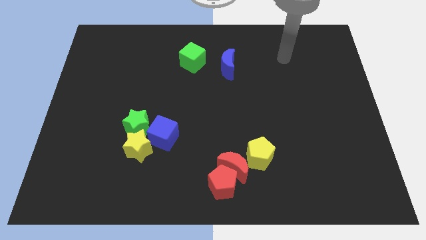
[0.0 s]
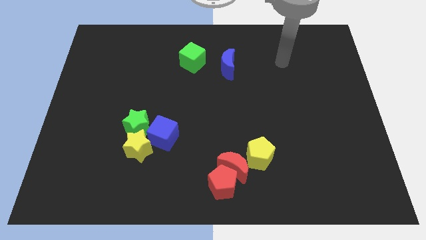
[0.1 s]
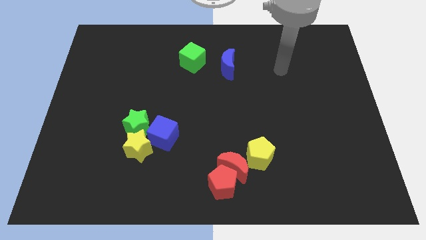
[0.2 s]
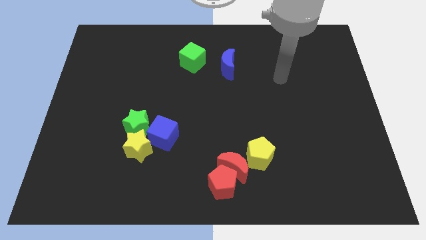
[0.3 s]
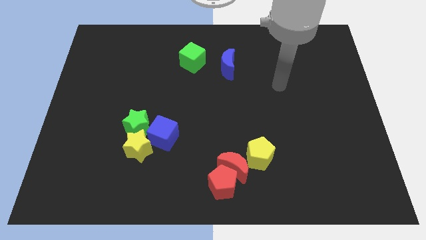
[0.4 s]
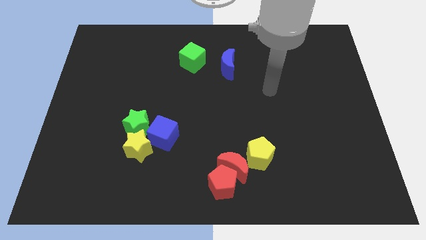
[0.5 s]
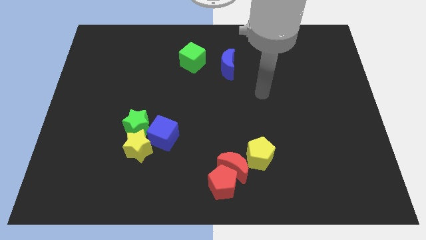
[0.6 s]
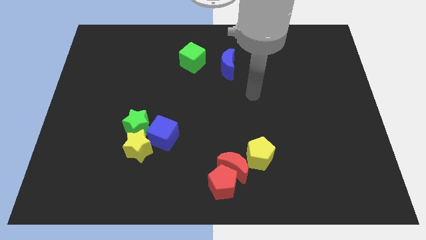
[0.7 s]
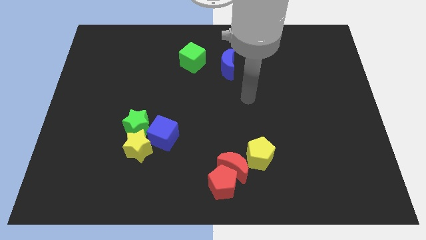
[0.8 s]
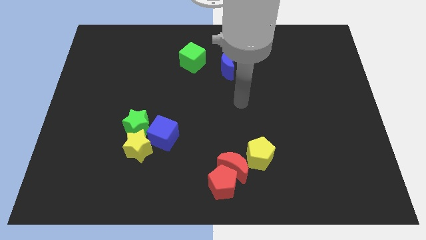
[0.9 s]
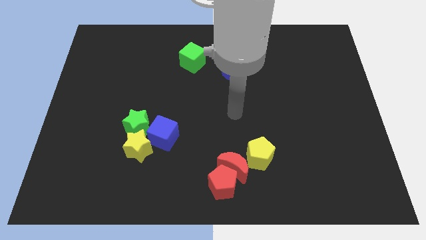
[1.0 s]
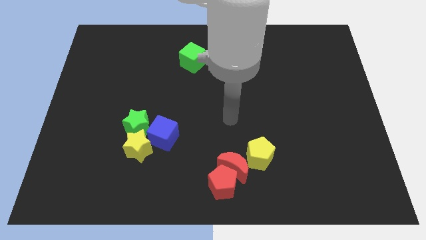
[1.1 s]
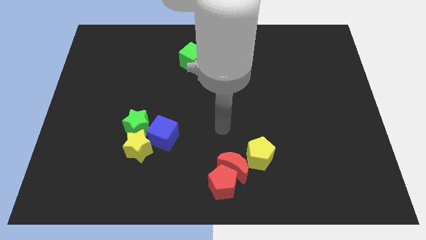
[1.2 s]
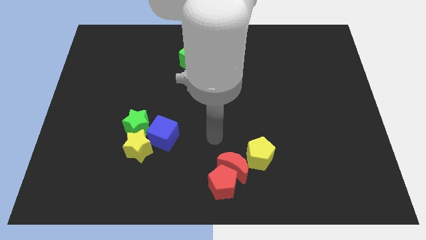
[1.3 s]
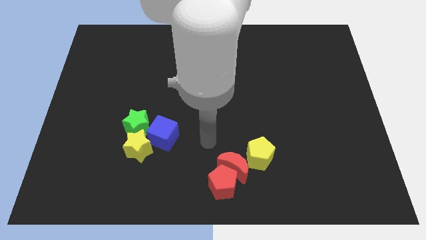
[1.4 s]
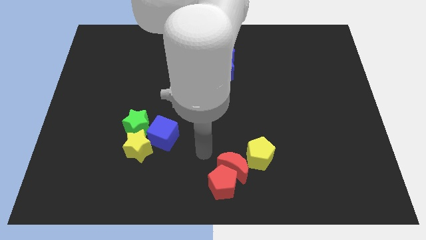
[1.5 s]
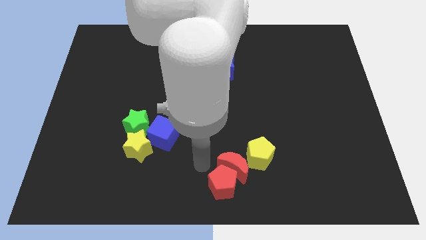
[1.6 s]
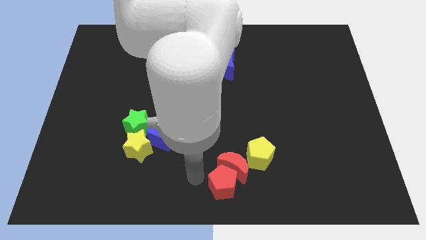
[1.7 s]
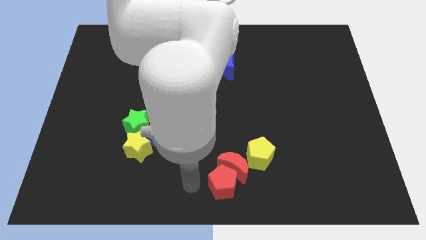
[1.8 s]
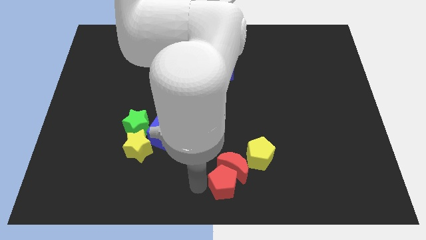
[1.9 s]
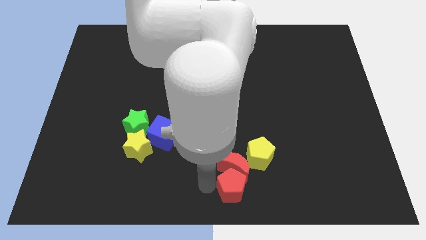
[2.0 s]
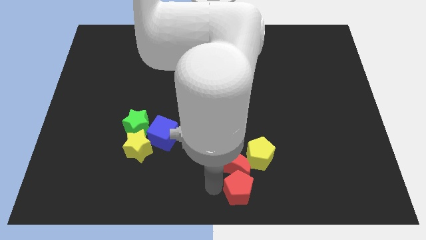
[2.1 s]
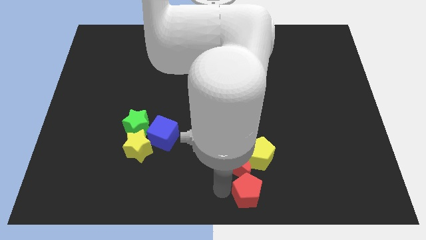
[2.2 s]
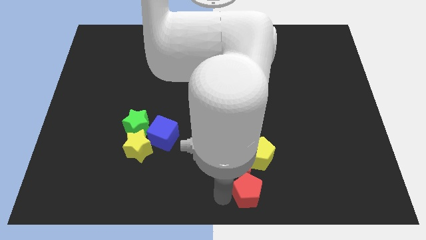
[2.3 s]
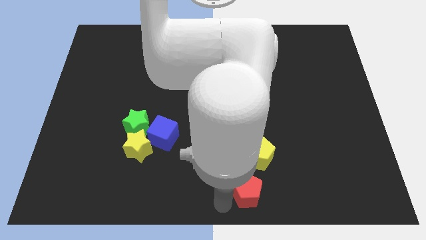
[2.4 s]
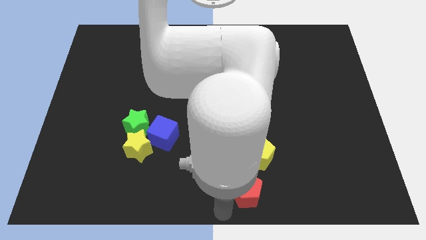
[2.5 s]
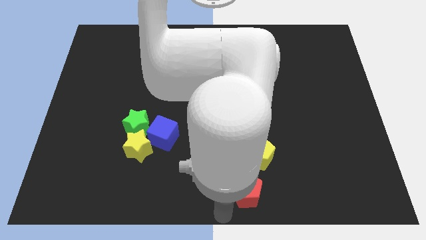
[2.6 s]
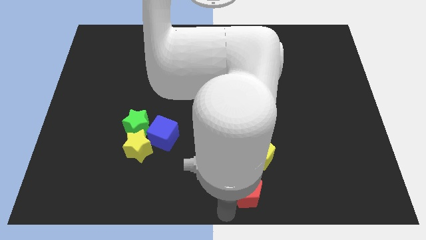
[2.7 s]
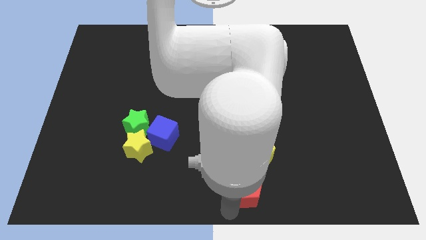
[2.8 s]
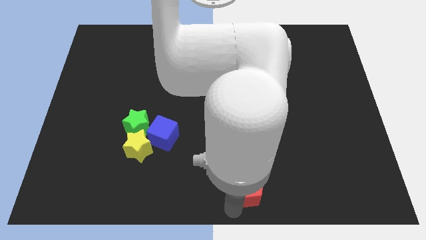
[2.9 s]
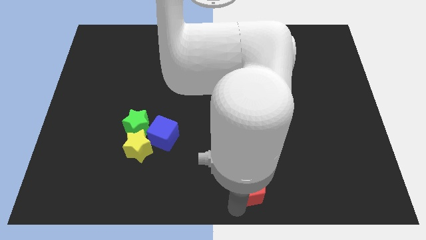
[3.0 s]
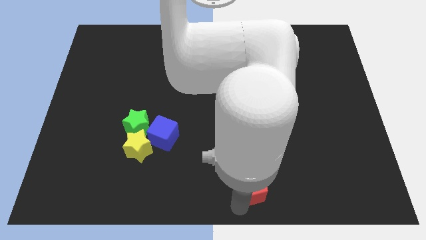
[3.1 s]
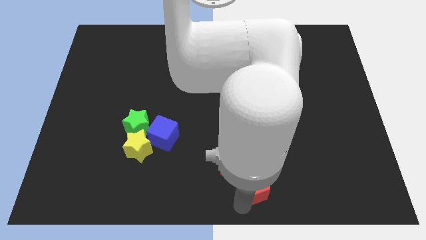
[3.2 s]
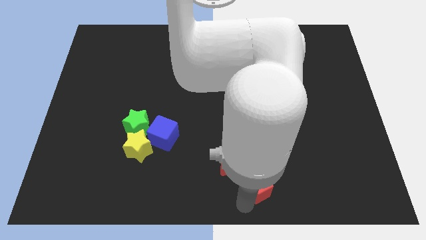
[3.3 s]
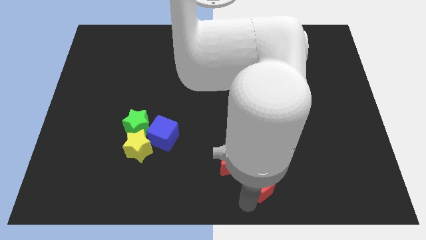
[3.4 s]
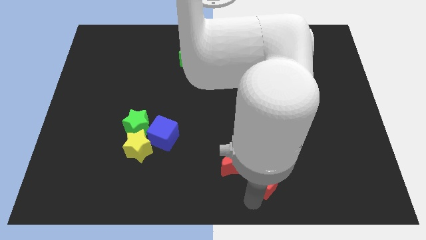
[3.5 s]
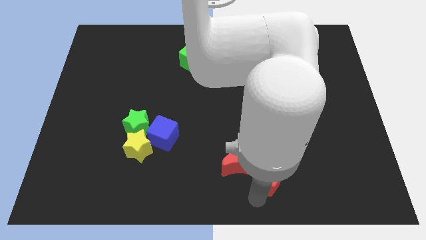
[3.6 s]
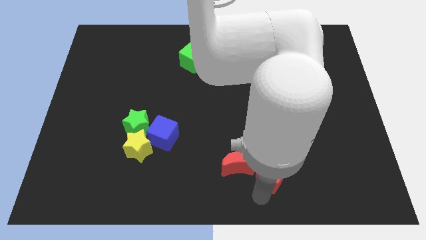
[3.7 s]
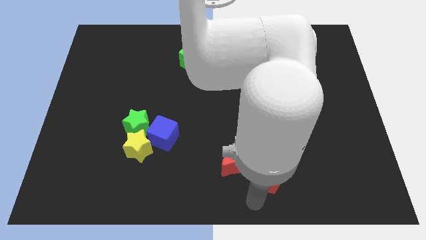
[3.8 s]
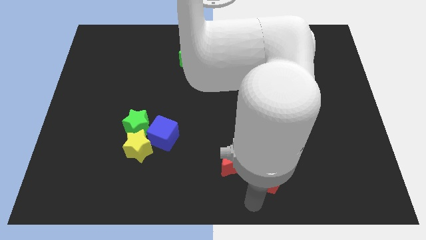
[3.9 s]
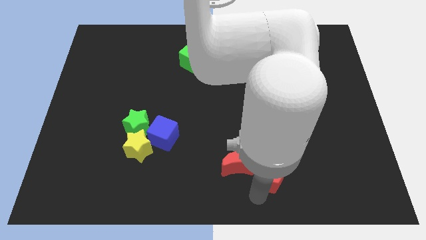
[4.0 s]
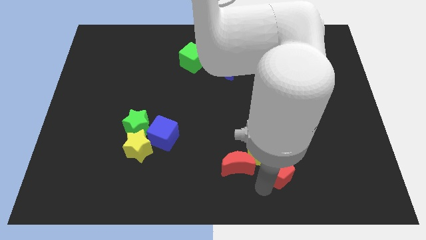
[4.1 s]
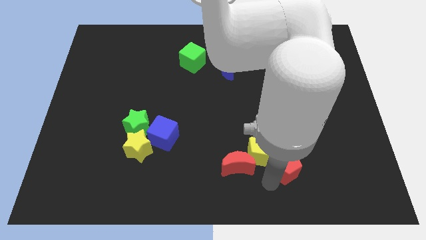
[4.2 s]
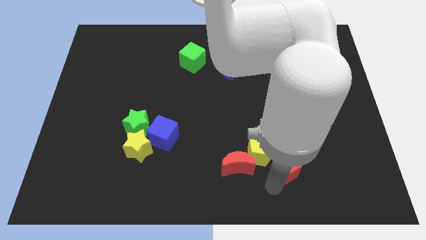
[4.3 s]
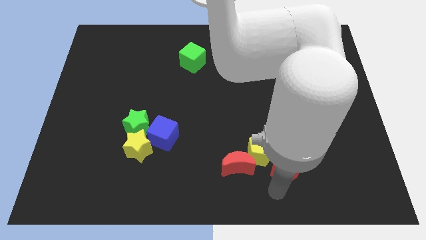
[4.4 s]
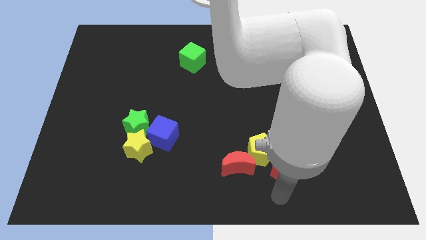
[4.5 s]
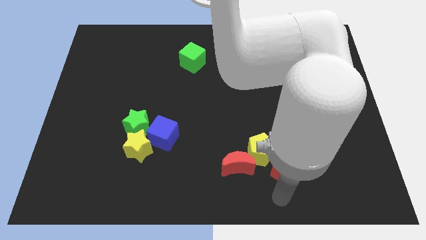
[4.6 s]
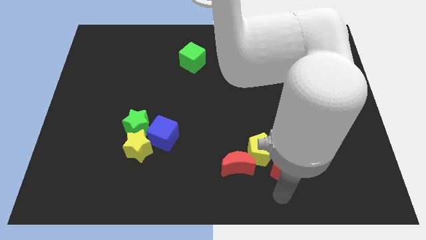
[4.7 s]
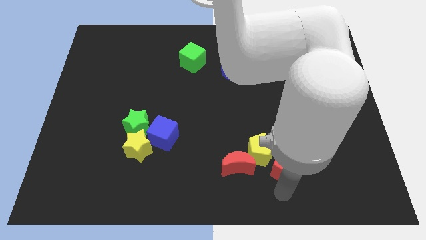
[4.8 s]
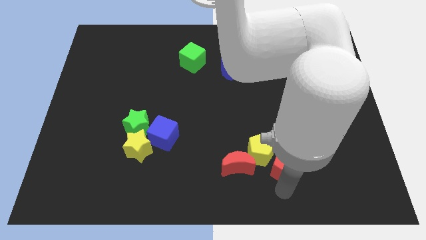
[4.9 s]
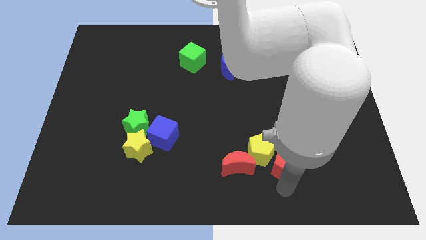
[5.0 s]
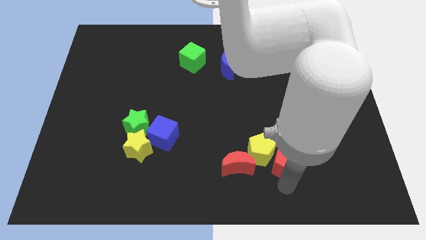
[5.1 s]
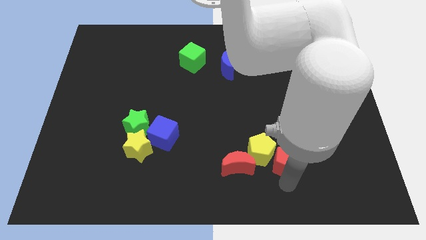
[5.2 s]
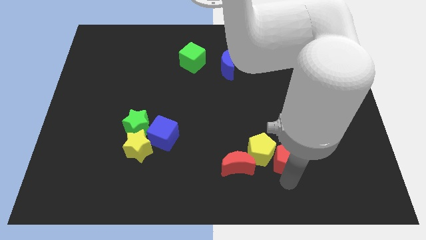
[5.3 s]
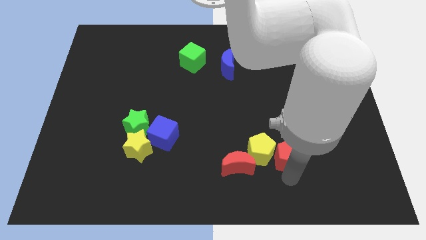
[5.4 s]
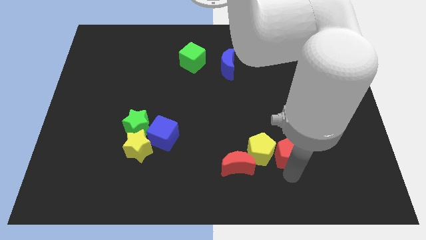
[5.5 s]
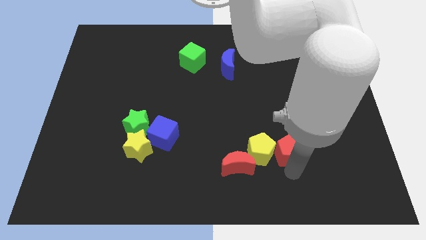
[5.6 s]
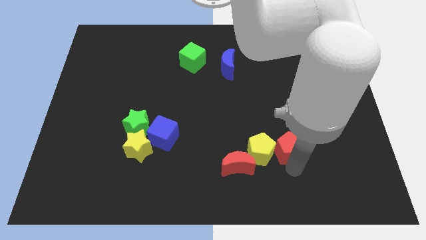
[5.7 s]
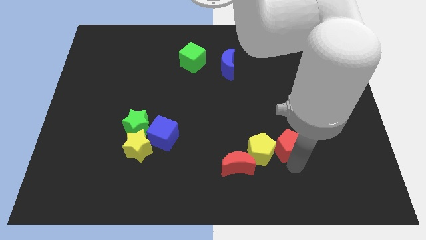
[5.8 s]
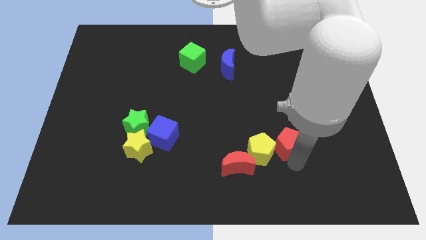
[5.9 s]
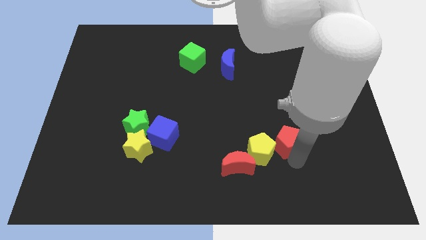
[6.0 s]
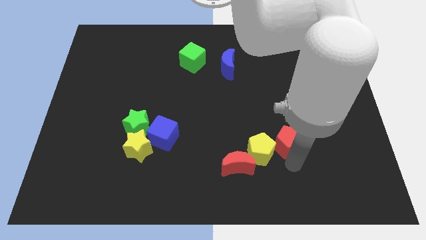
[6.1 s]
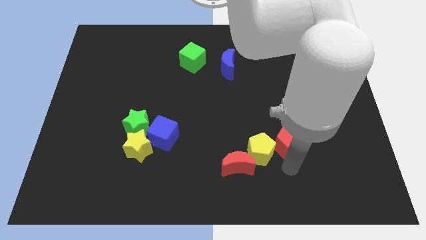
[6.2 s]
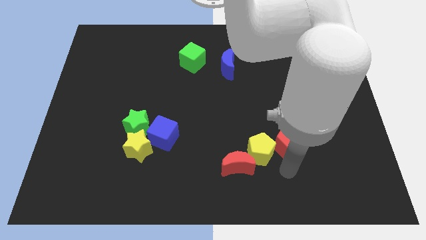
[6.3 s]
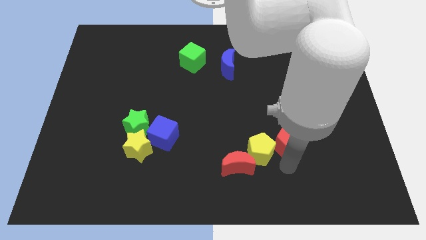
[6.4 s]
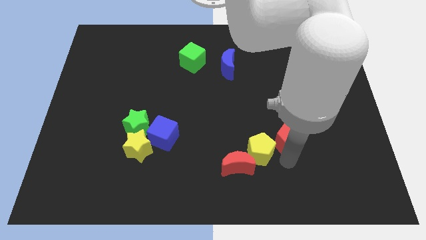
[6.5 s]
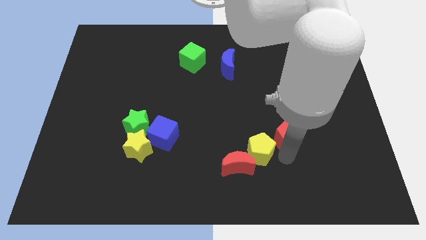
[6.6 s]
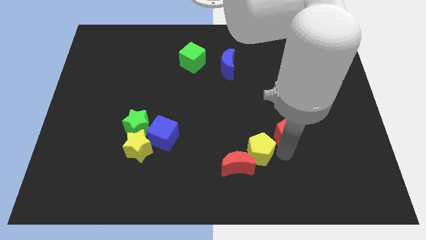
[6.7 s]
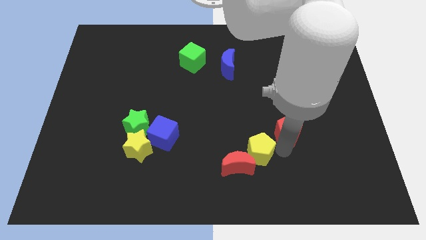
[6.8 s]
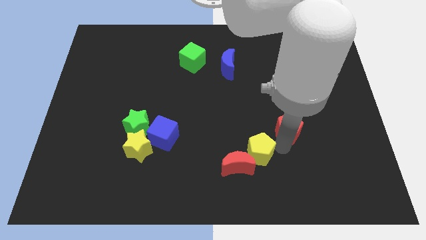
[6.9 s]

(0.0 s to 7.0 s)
move the red pentagon upwards and right

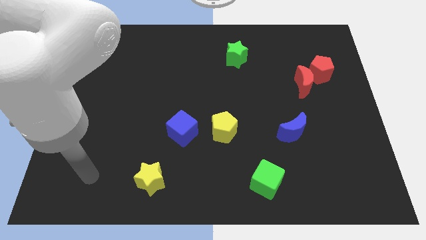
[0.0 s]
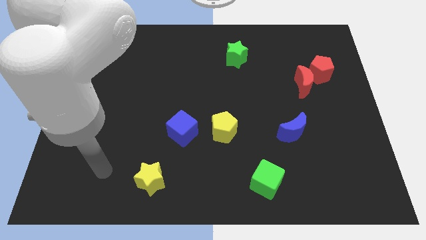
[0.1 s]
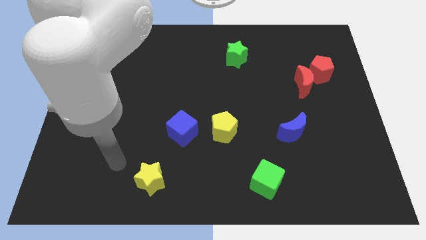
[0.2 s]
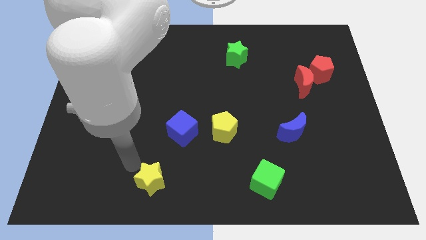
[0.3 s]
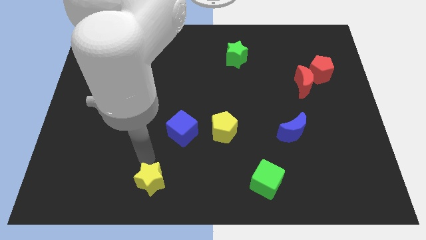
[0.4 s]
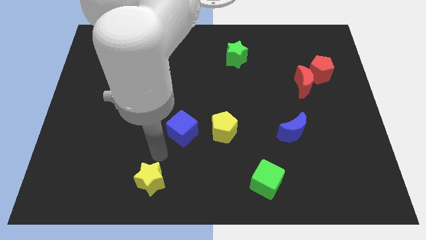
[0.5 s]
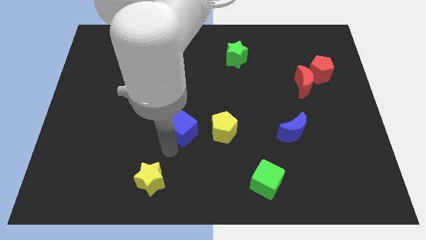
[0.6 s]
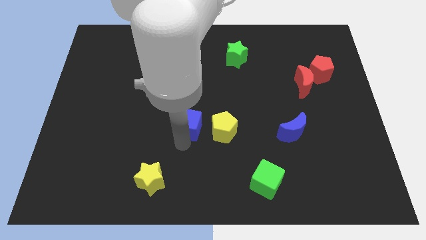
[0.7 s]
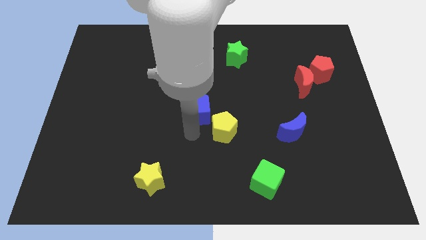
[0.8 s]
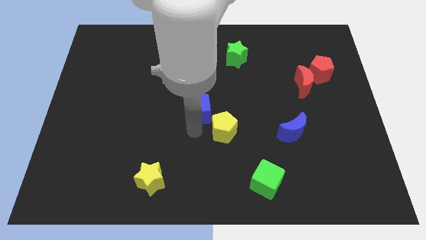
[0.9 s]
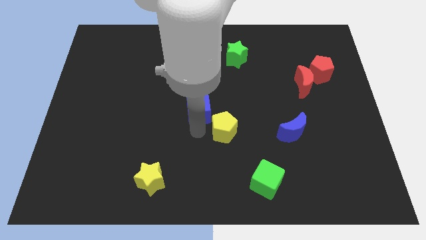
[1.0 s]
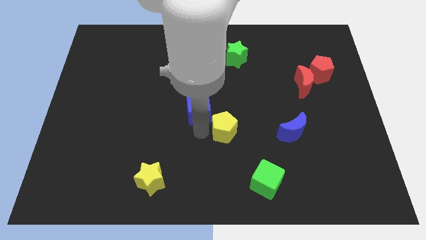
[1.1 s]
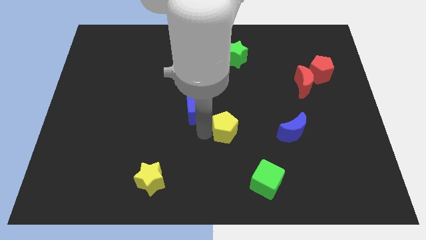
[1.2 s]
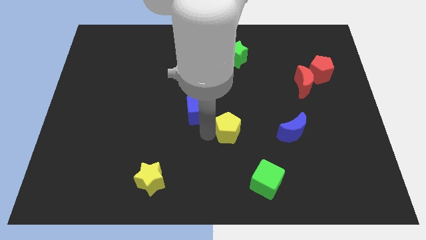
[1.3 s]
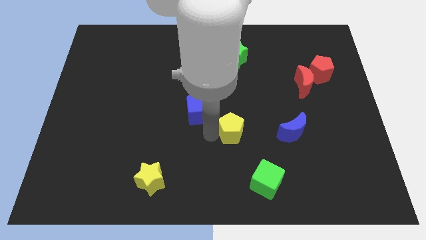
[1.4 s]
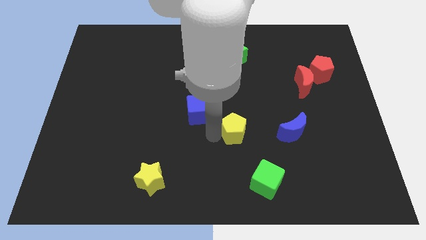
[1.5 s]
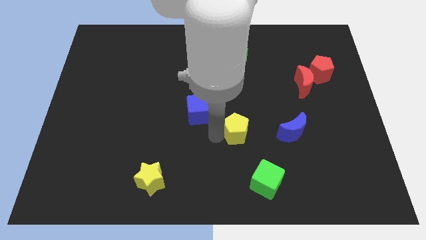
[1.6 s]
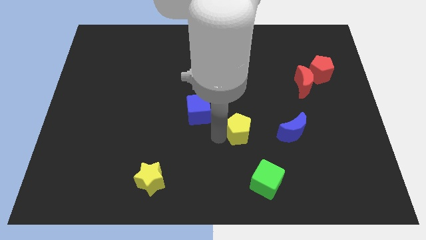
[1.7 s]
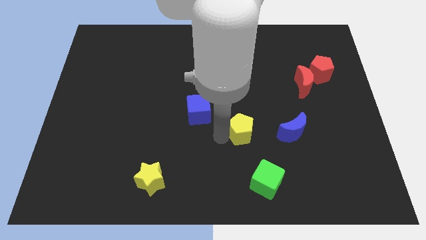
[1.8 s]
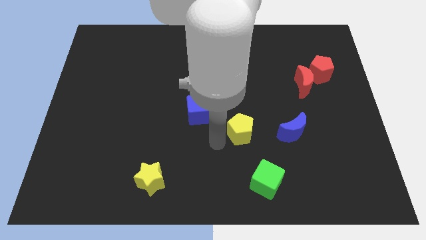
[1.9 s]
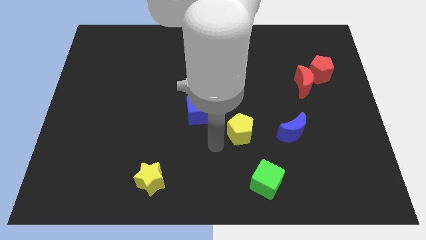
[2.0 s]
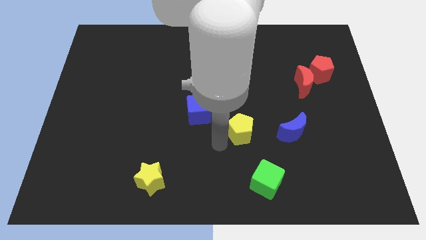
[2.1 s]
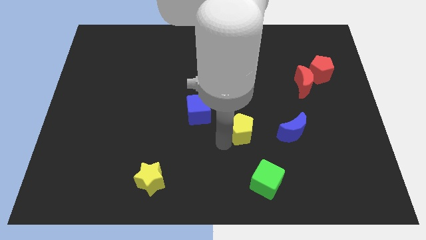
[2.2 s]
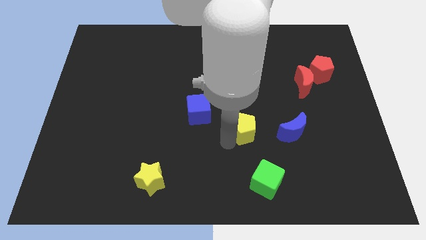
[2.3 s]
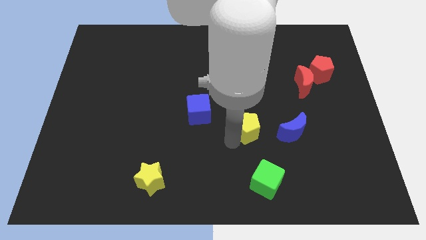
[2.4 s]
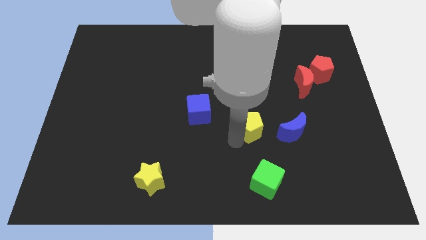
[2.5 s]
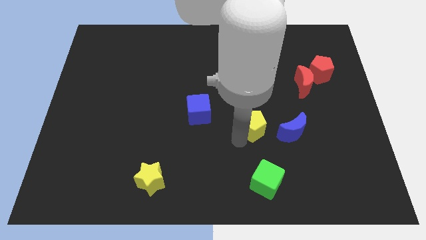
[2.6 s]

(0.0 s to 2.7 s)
slightly move the yellow pentagon right
